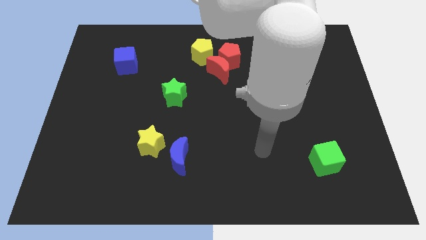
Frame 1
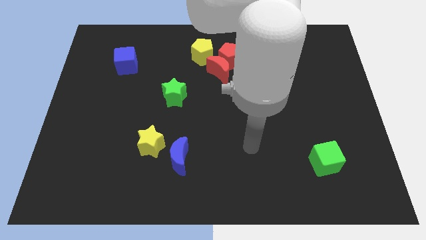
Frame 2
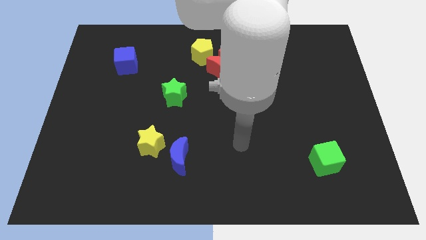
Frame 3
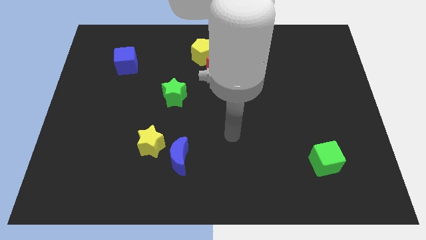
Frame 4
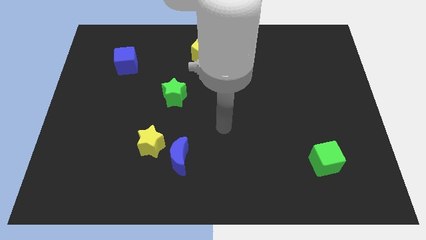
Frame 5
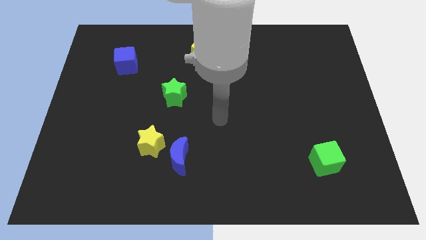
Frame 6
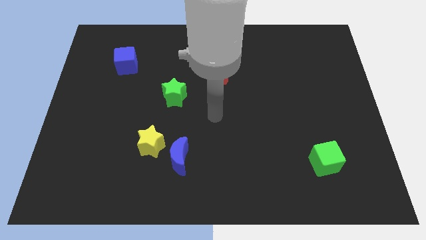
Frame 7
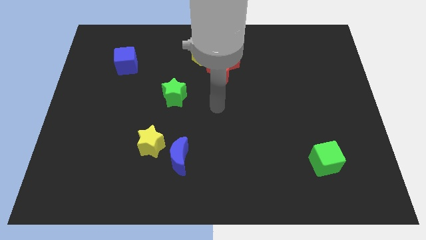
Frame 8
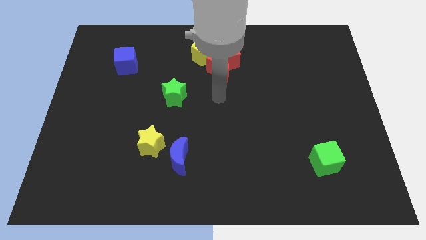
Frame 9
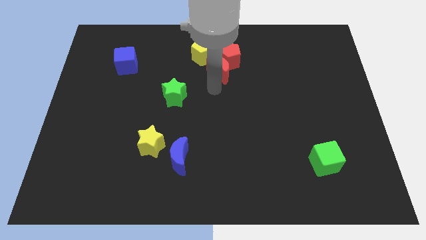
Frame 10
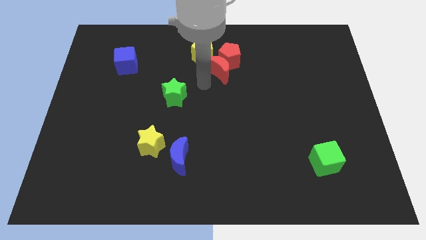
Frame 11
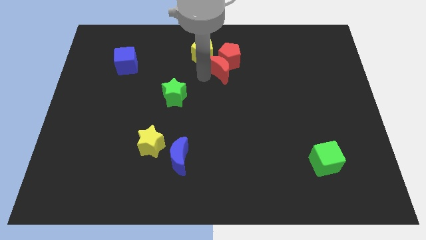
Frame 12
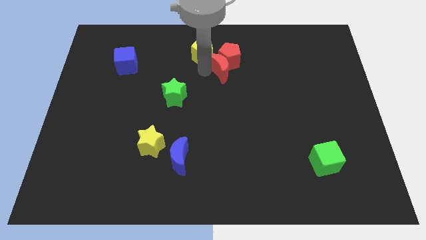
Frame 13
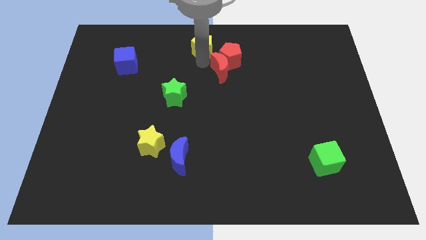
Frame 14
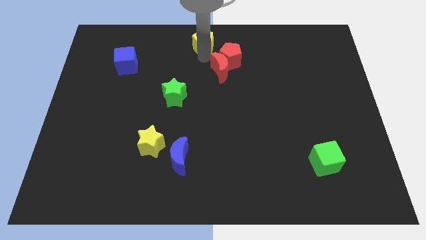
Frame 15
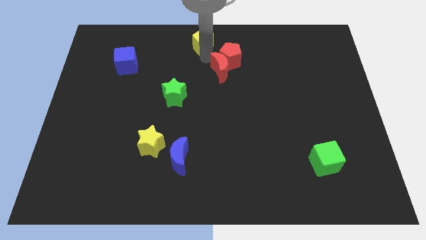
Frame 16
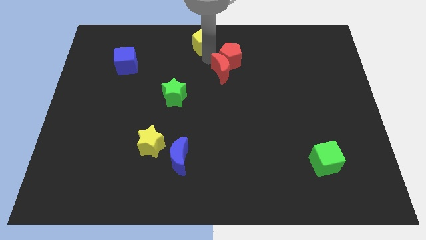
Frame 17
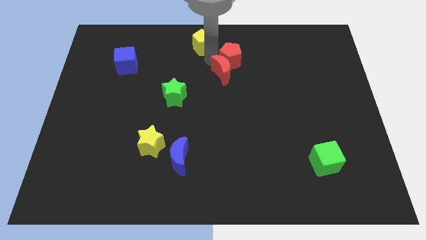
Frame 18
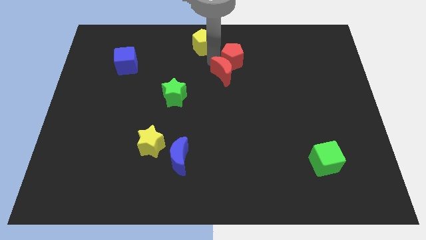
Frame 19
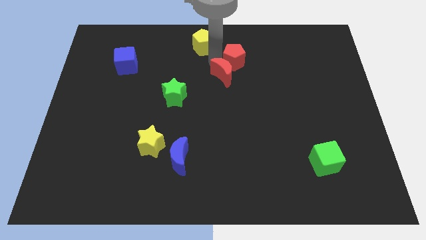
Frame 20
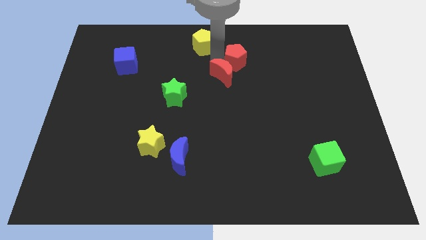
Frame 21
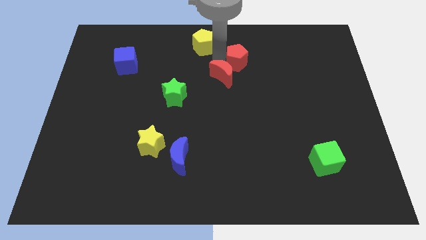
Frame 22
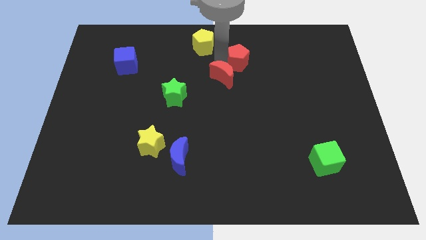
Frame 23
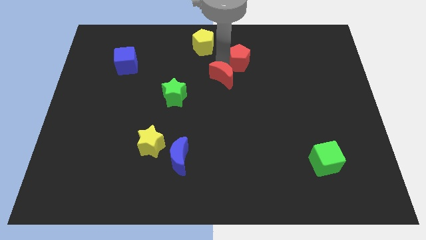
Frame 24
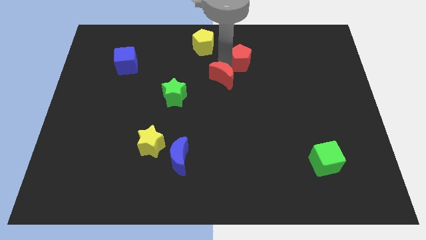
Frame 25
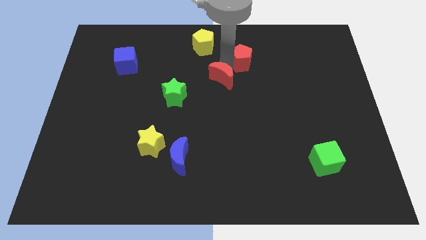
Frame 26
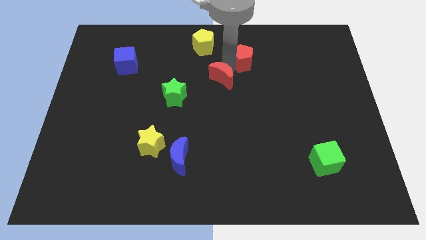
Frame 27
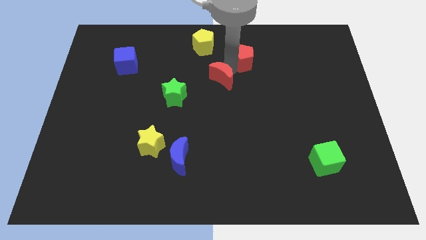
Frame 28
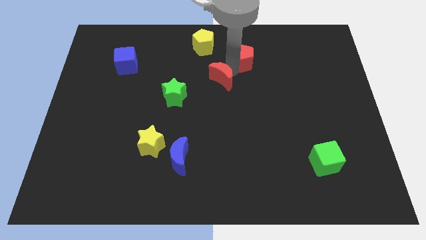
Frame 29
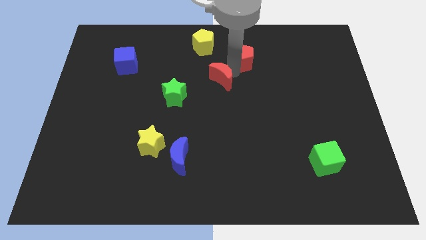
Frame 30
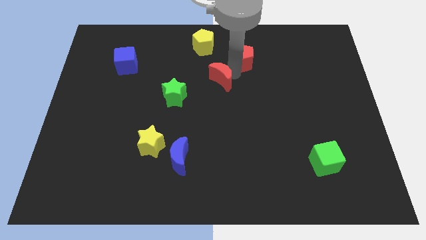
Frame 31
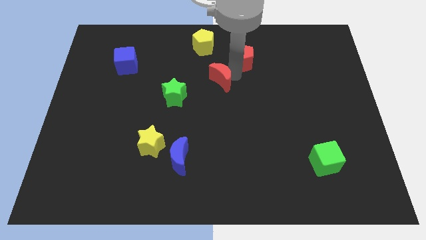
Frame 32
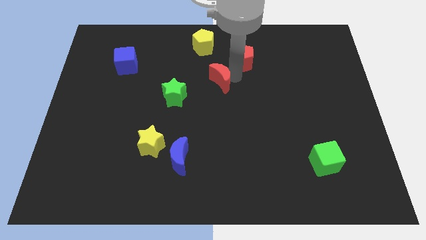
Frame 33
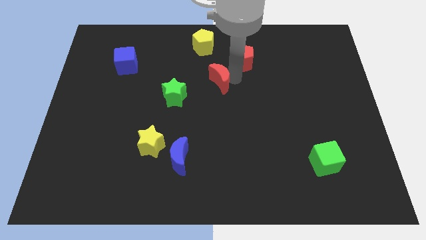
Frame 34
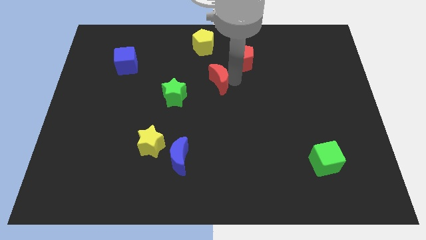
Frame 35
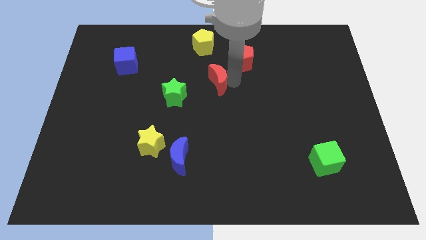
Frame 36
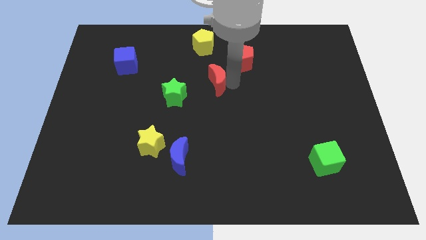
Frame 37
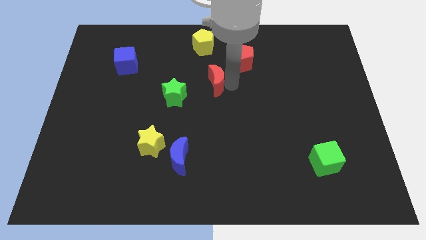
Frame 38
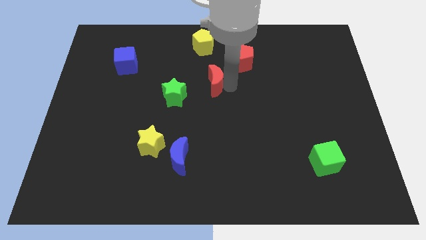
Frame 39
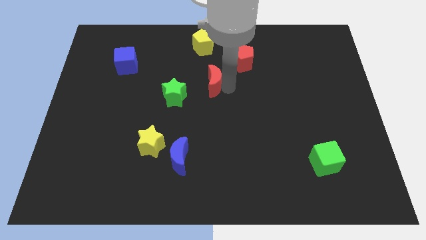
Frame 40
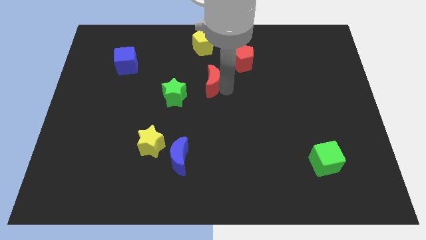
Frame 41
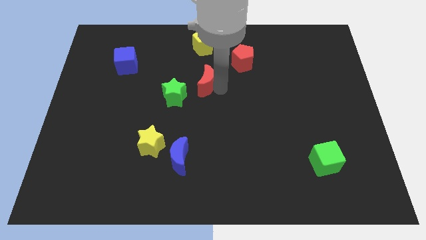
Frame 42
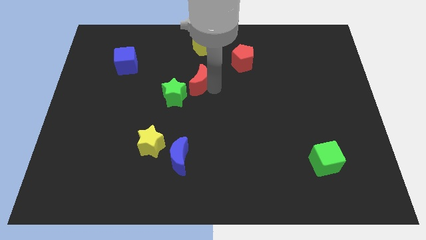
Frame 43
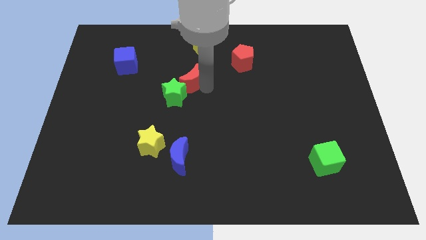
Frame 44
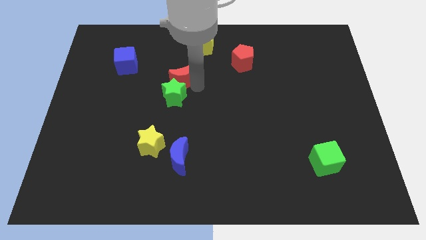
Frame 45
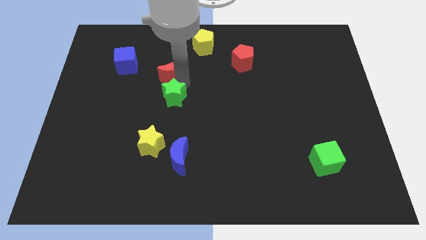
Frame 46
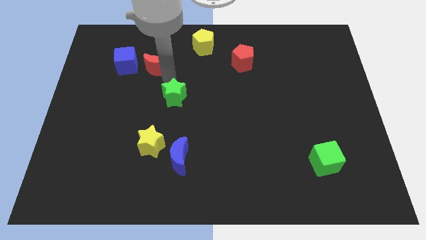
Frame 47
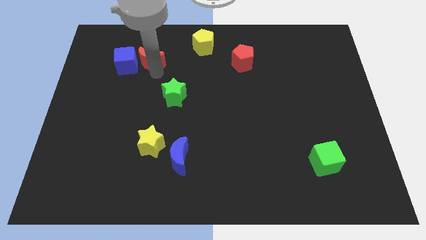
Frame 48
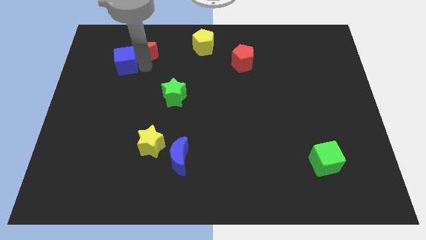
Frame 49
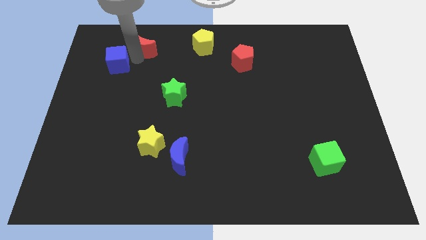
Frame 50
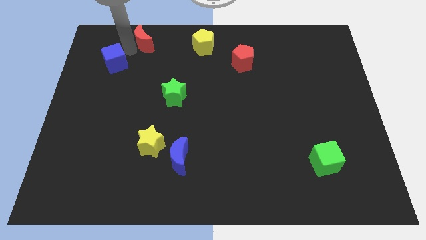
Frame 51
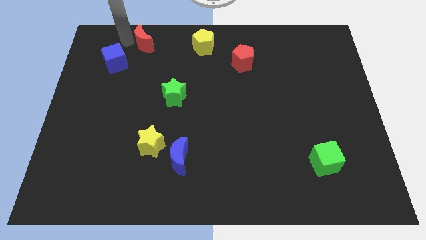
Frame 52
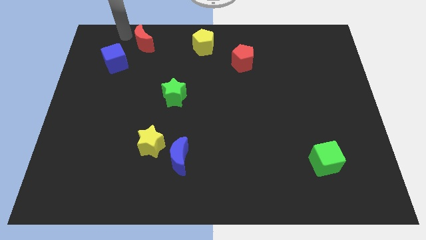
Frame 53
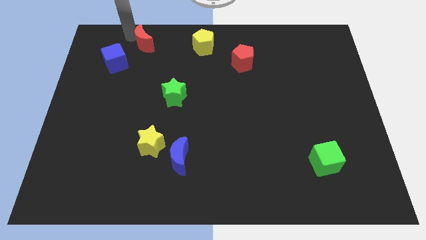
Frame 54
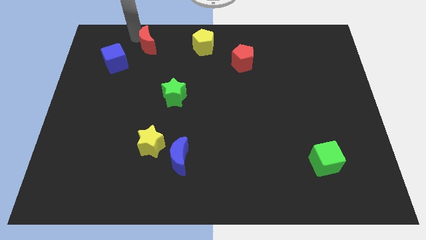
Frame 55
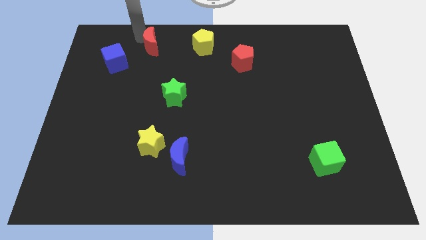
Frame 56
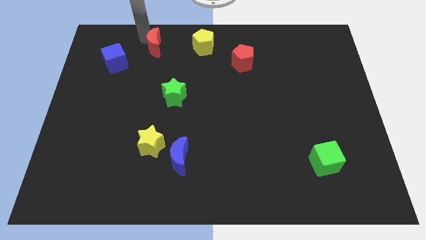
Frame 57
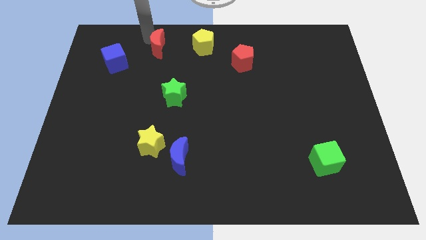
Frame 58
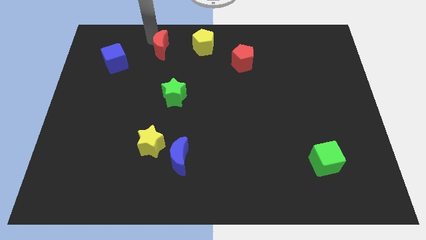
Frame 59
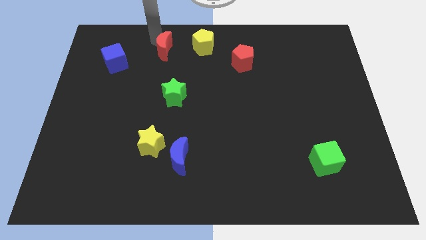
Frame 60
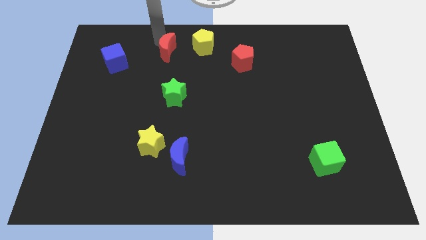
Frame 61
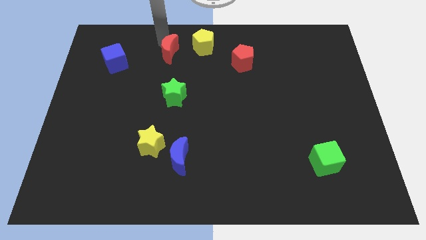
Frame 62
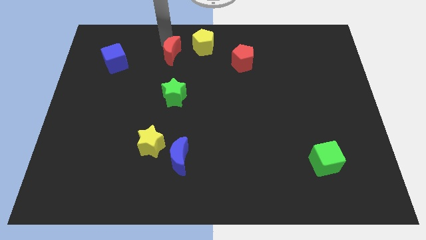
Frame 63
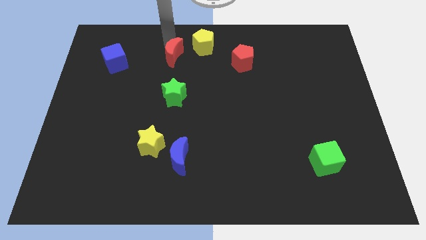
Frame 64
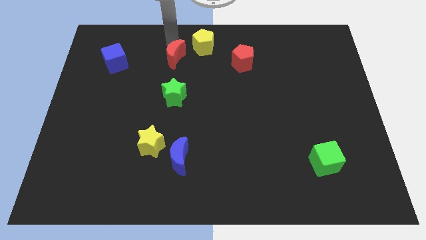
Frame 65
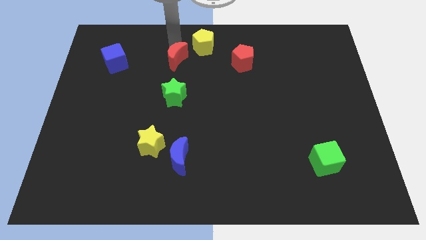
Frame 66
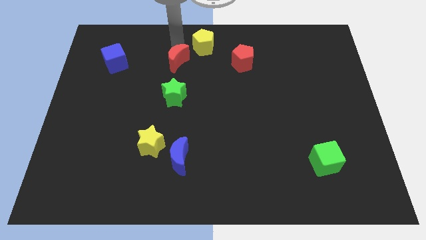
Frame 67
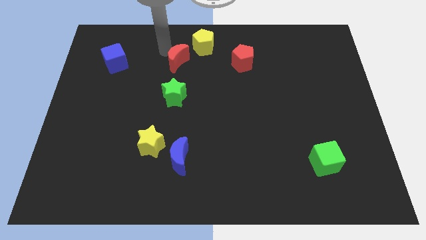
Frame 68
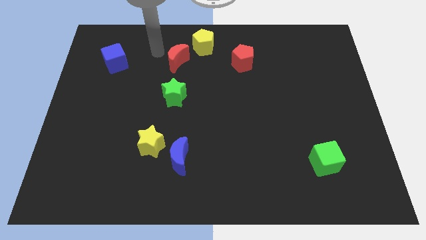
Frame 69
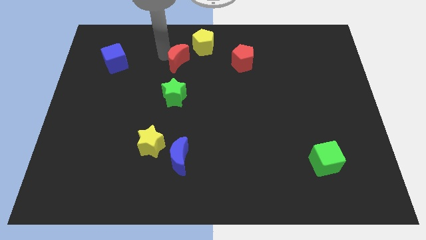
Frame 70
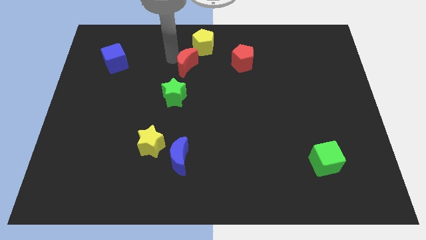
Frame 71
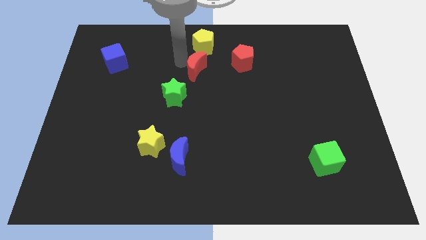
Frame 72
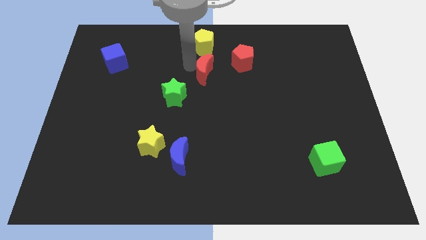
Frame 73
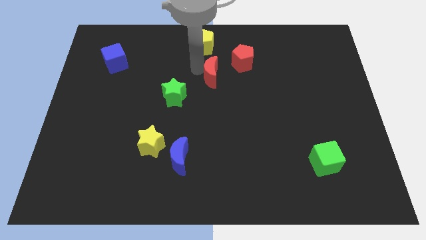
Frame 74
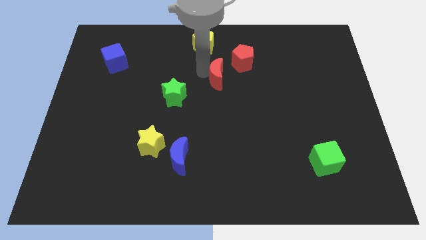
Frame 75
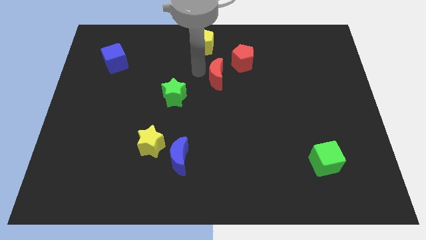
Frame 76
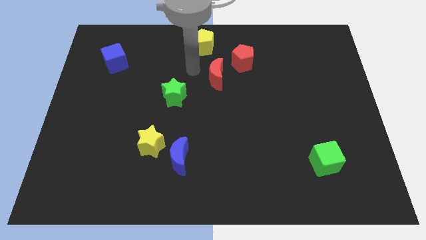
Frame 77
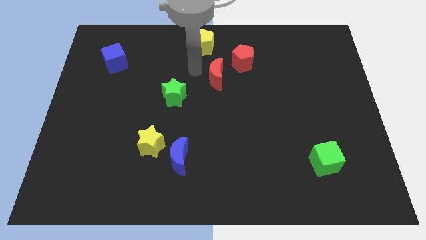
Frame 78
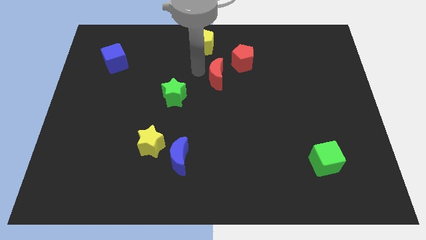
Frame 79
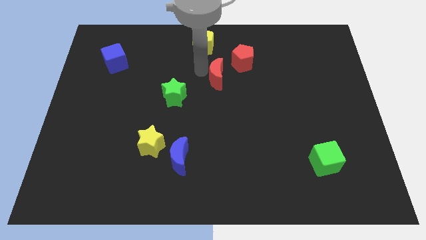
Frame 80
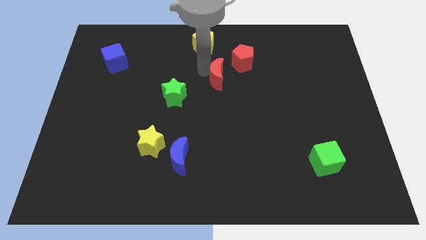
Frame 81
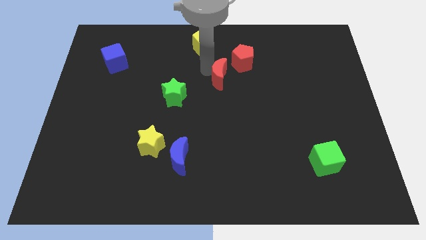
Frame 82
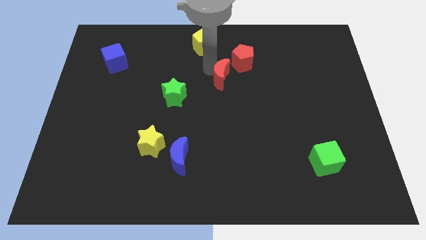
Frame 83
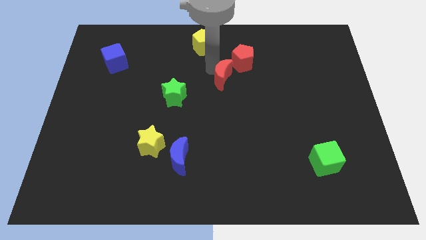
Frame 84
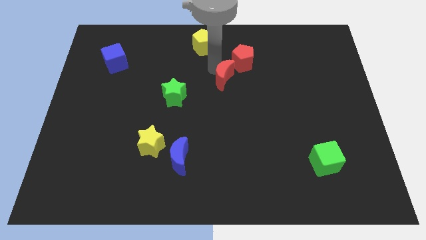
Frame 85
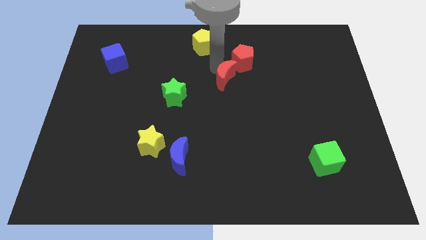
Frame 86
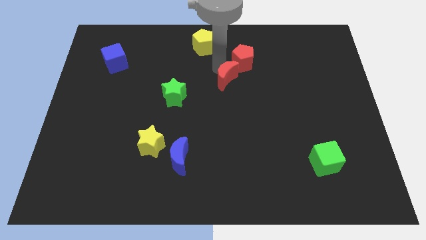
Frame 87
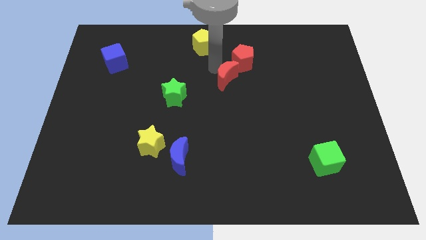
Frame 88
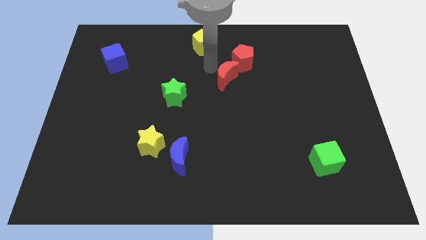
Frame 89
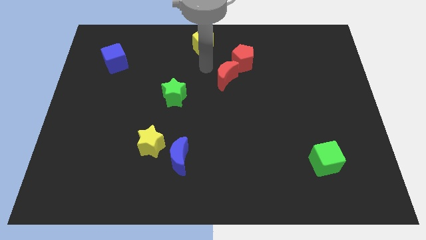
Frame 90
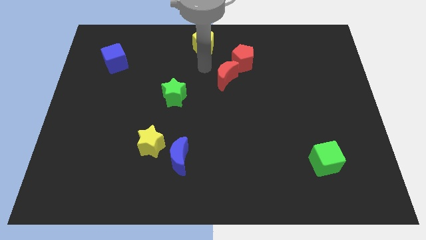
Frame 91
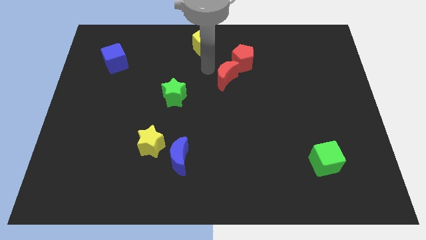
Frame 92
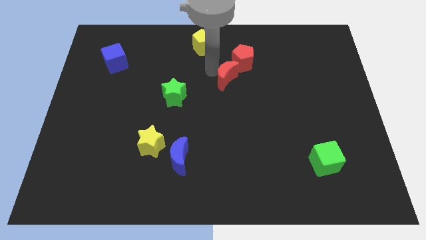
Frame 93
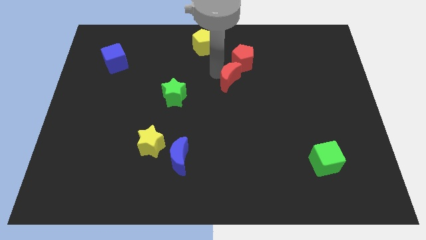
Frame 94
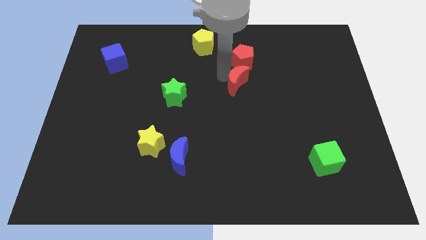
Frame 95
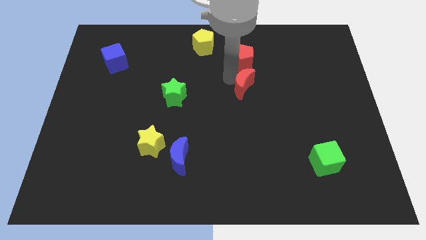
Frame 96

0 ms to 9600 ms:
slide the red moon diagonally down and right a bit
